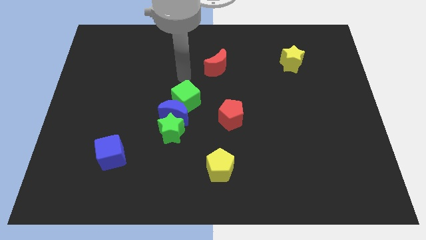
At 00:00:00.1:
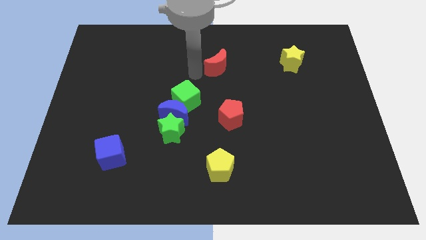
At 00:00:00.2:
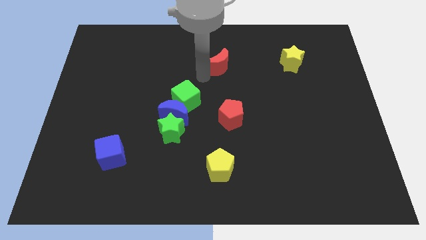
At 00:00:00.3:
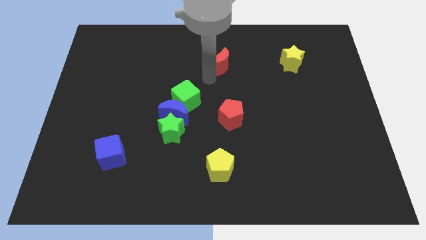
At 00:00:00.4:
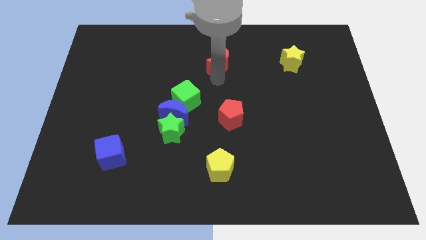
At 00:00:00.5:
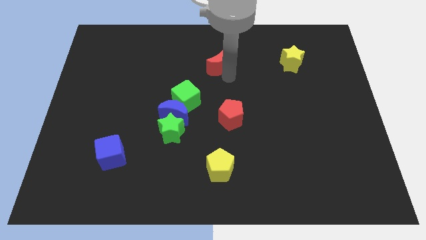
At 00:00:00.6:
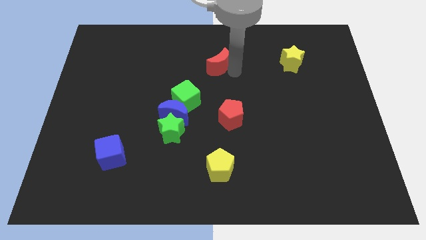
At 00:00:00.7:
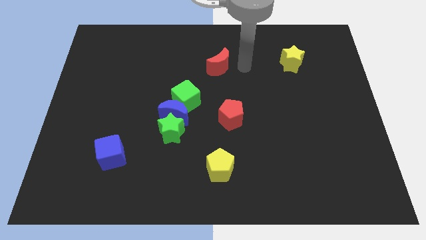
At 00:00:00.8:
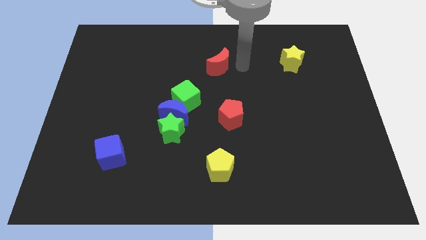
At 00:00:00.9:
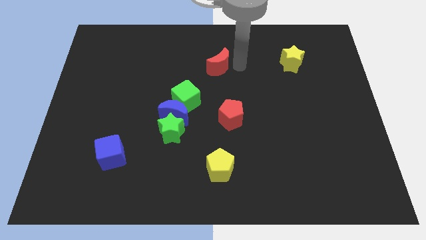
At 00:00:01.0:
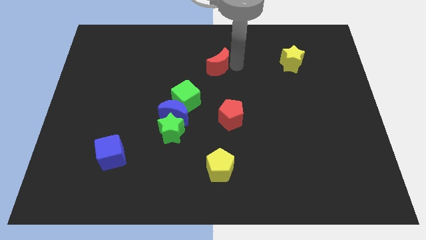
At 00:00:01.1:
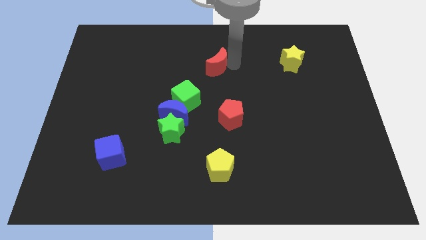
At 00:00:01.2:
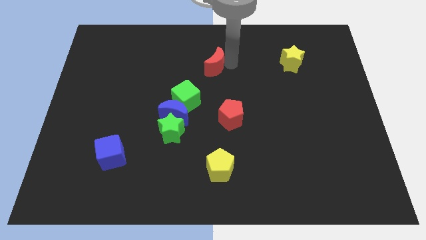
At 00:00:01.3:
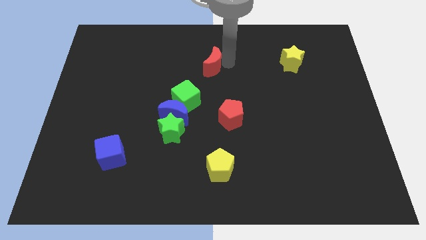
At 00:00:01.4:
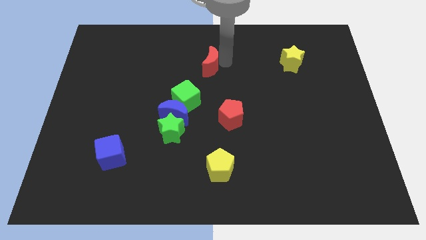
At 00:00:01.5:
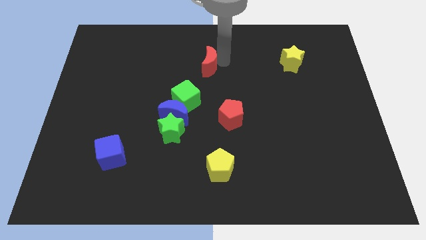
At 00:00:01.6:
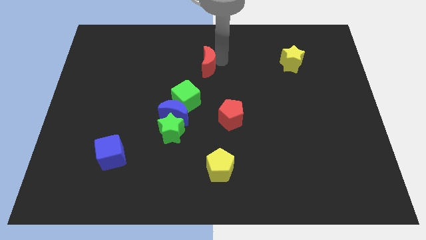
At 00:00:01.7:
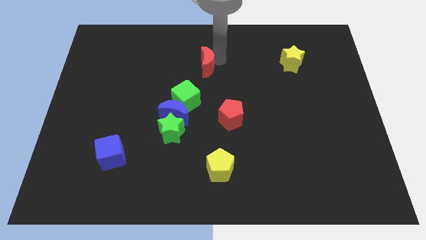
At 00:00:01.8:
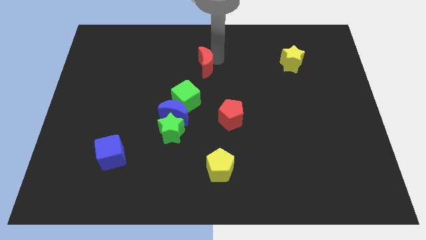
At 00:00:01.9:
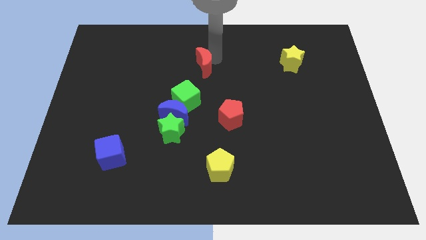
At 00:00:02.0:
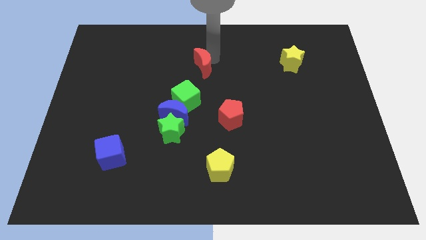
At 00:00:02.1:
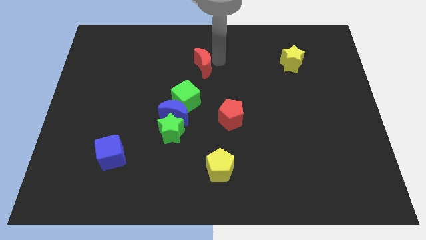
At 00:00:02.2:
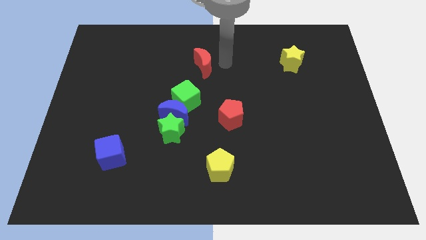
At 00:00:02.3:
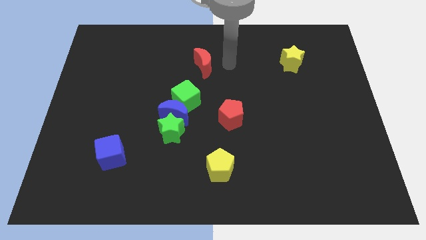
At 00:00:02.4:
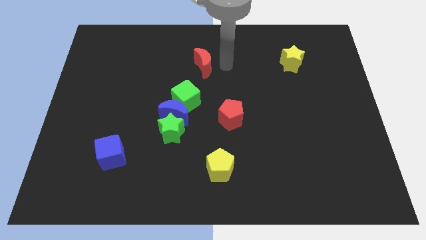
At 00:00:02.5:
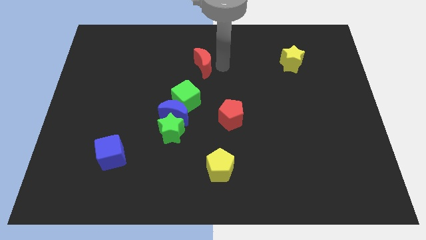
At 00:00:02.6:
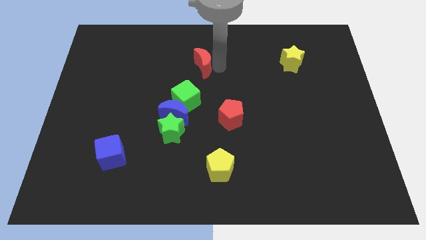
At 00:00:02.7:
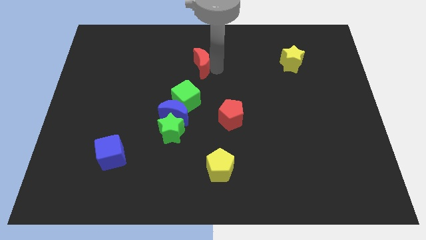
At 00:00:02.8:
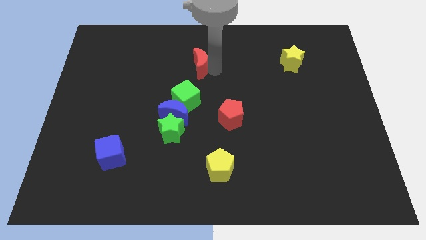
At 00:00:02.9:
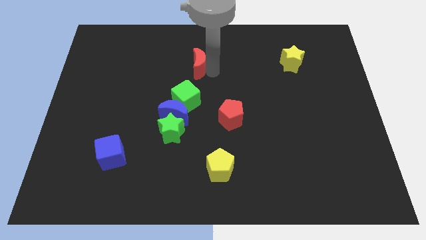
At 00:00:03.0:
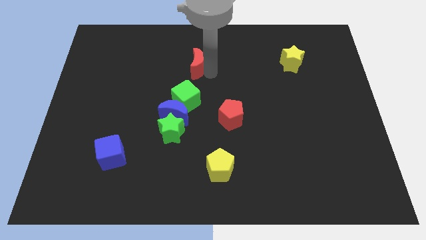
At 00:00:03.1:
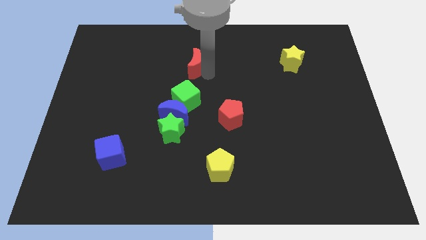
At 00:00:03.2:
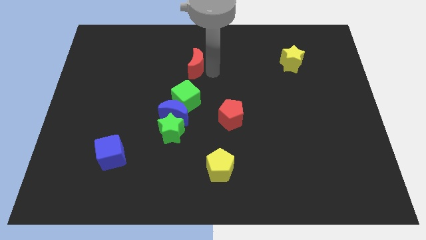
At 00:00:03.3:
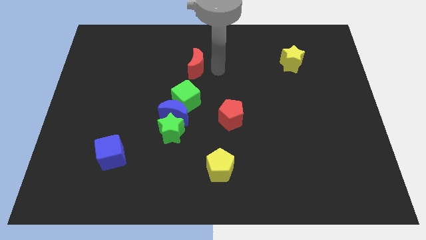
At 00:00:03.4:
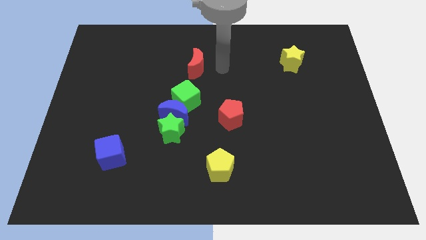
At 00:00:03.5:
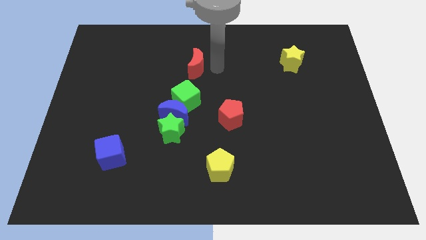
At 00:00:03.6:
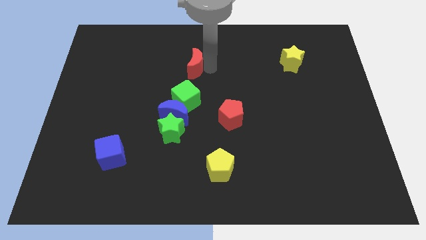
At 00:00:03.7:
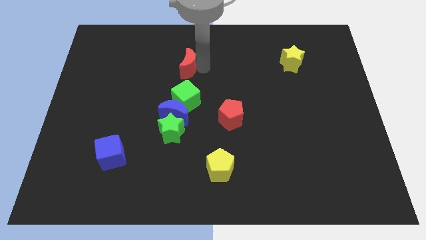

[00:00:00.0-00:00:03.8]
slide the red moon to the left a little bit

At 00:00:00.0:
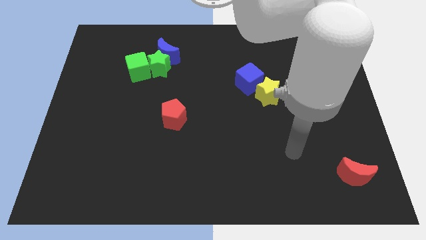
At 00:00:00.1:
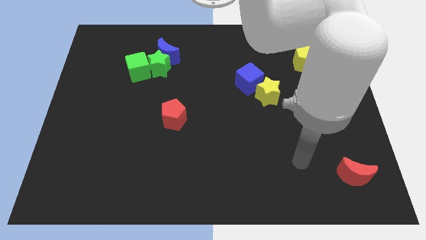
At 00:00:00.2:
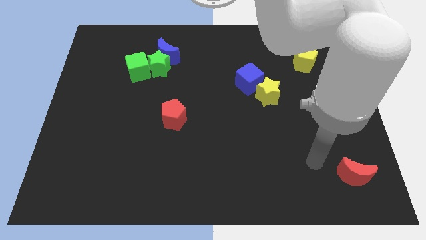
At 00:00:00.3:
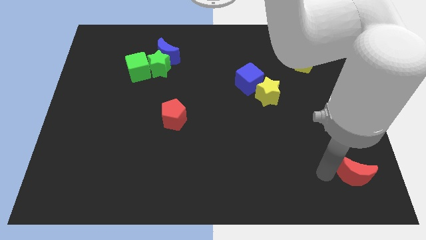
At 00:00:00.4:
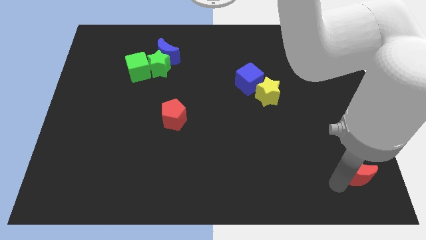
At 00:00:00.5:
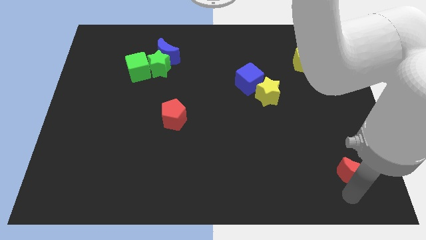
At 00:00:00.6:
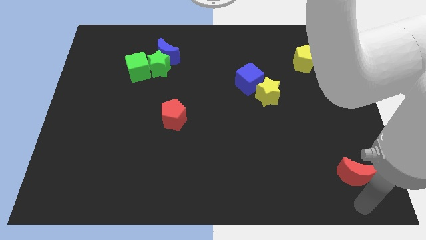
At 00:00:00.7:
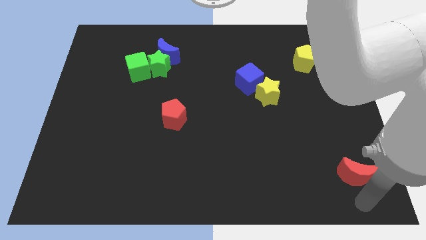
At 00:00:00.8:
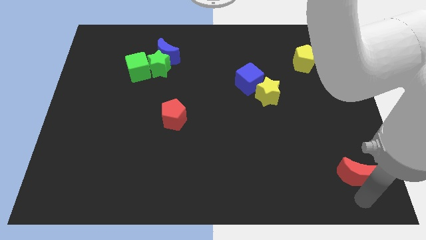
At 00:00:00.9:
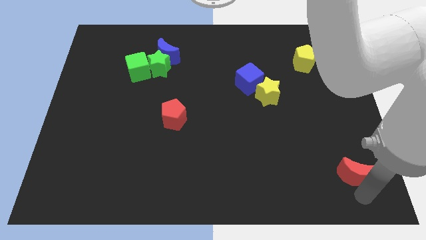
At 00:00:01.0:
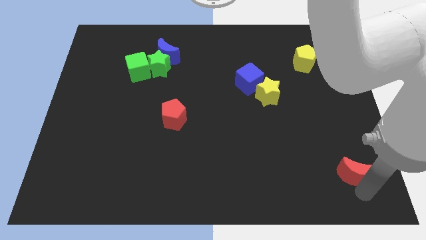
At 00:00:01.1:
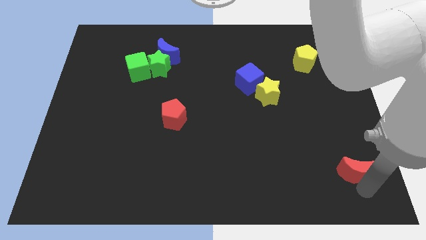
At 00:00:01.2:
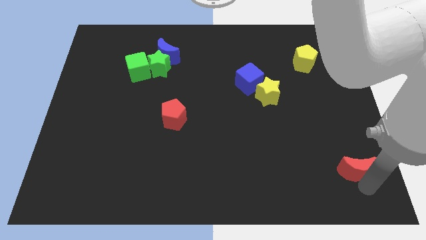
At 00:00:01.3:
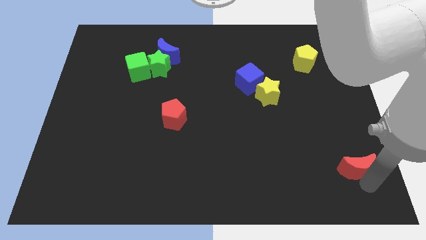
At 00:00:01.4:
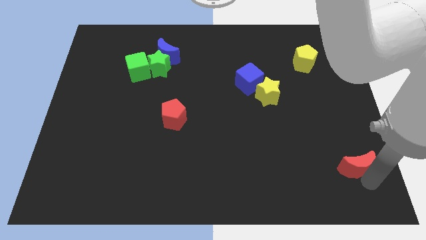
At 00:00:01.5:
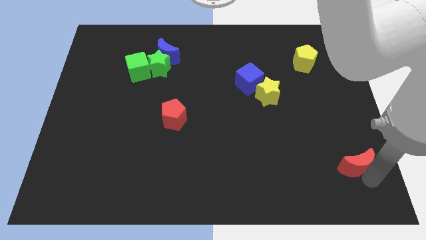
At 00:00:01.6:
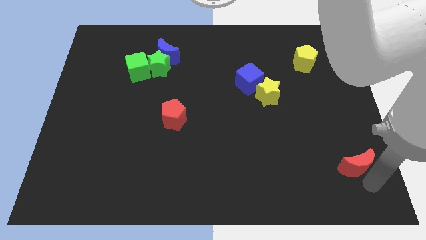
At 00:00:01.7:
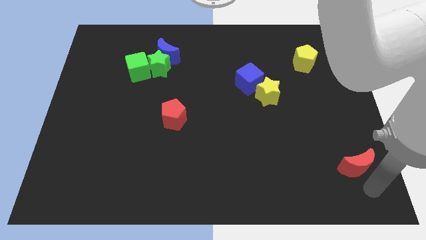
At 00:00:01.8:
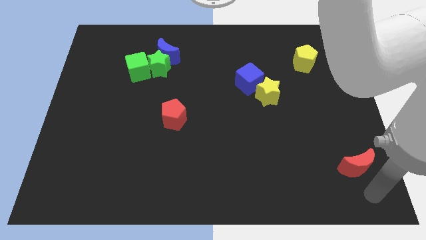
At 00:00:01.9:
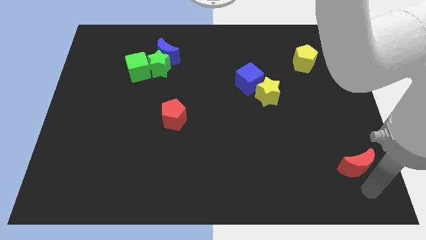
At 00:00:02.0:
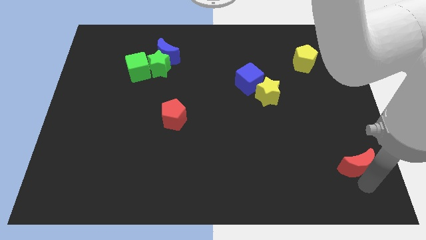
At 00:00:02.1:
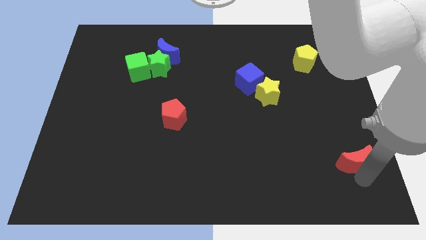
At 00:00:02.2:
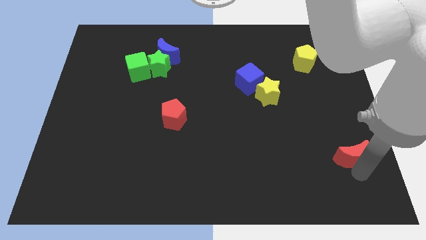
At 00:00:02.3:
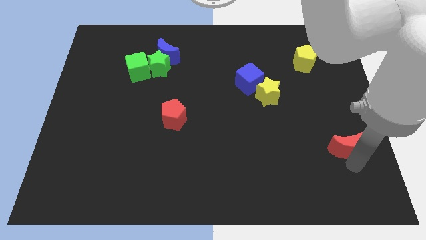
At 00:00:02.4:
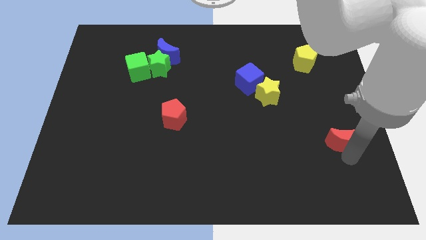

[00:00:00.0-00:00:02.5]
slide the red moon slightly upwards

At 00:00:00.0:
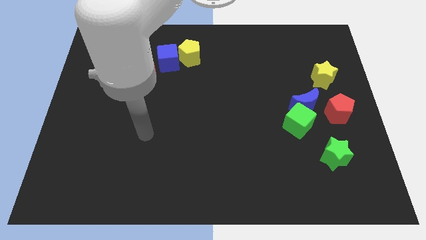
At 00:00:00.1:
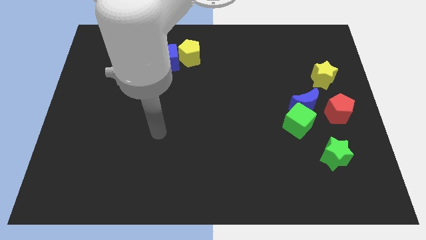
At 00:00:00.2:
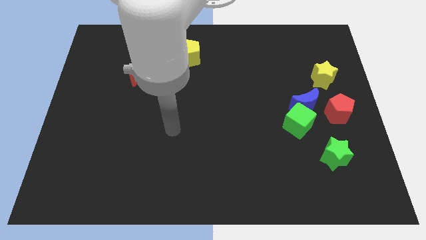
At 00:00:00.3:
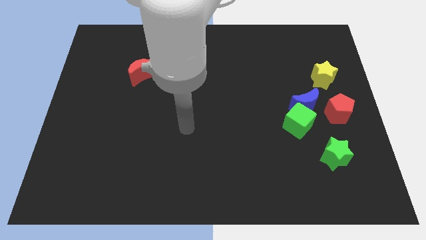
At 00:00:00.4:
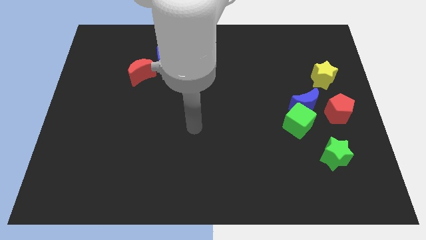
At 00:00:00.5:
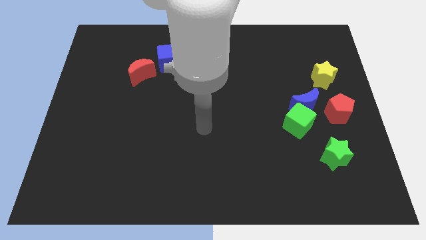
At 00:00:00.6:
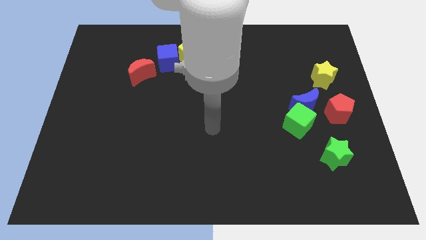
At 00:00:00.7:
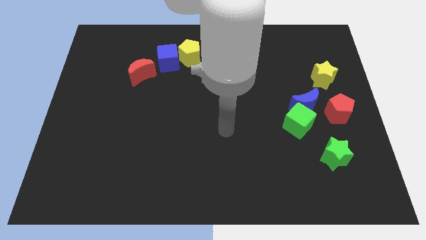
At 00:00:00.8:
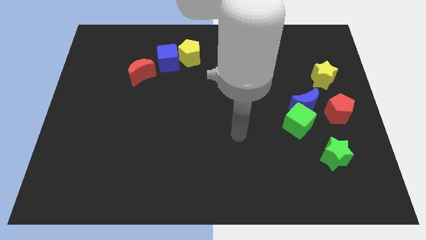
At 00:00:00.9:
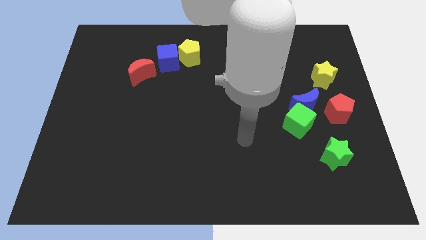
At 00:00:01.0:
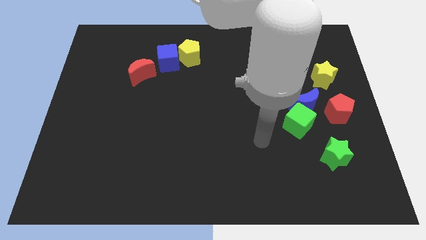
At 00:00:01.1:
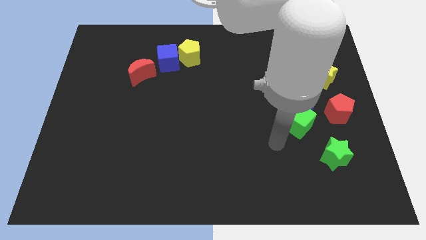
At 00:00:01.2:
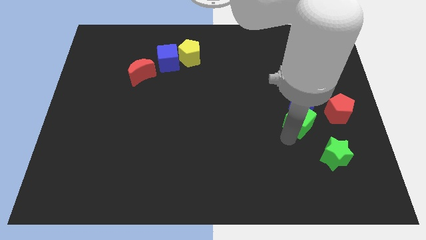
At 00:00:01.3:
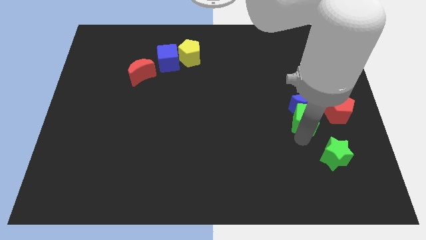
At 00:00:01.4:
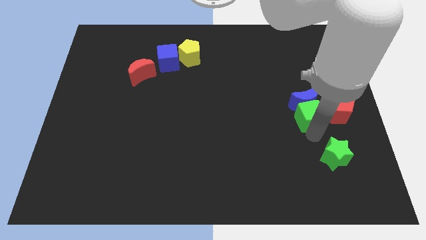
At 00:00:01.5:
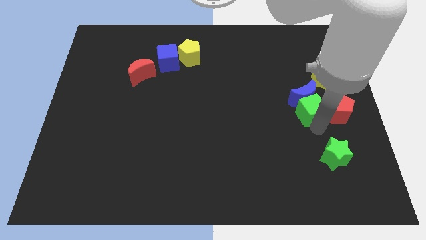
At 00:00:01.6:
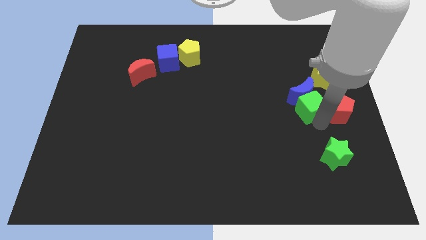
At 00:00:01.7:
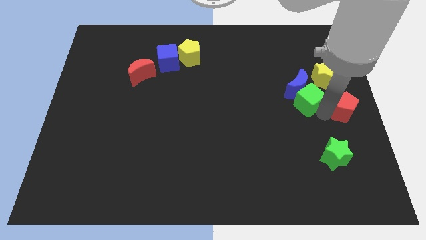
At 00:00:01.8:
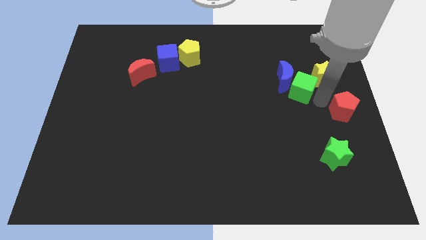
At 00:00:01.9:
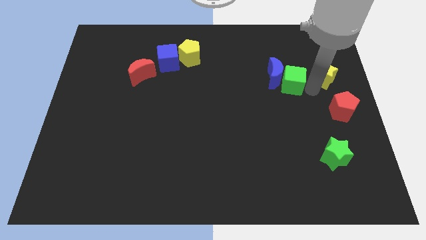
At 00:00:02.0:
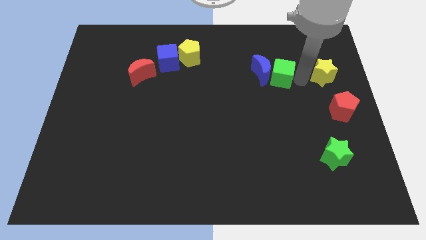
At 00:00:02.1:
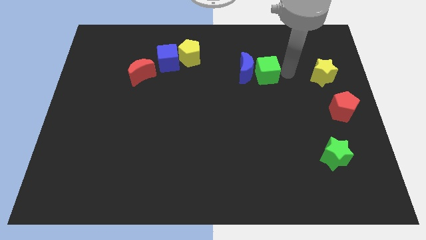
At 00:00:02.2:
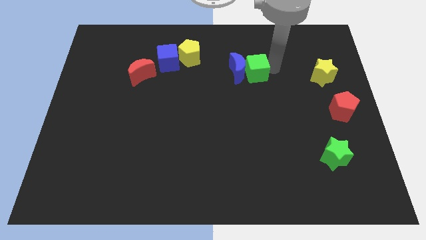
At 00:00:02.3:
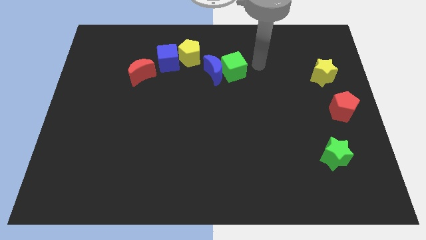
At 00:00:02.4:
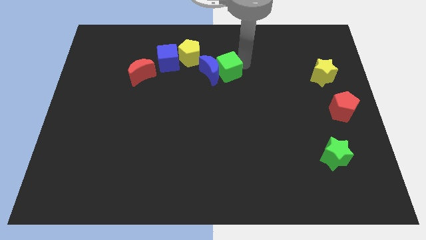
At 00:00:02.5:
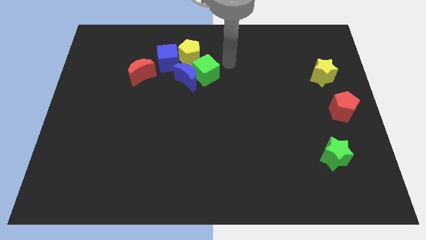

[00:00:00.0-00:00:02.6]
slide the blue moon left
